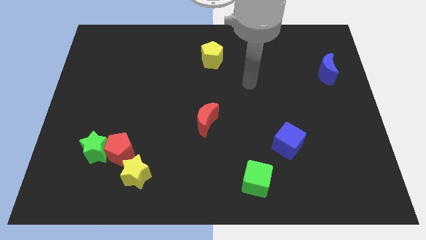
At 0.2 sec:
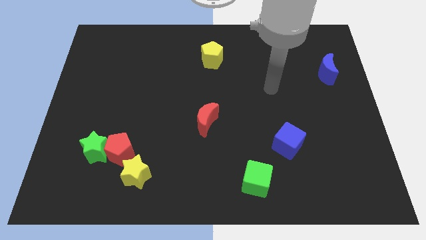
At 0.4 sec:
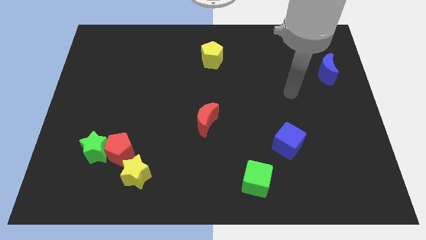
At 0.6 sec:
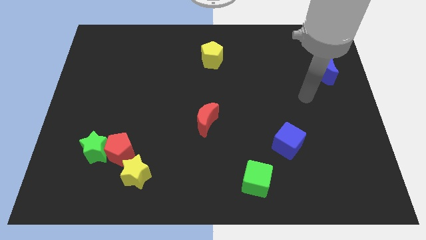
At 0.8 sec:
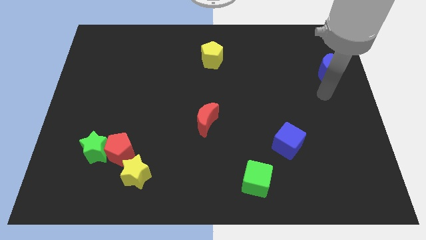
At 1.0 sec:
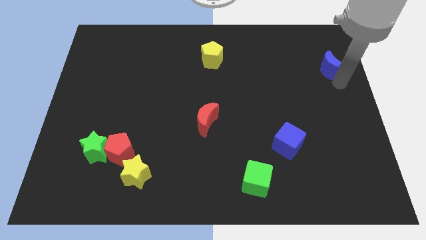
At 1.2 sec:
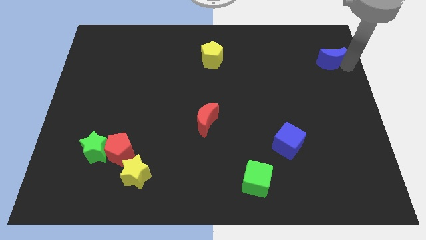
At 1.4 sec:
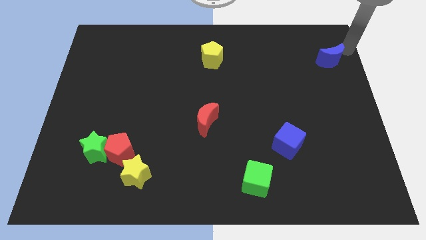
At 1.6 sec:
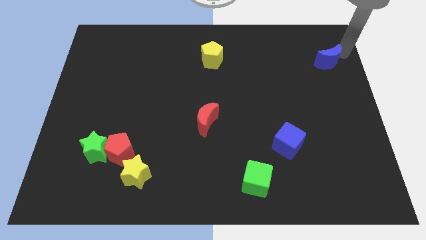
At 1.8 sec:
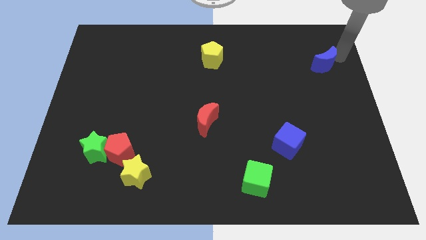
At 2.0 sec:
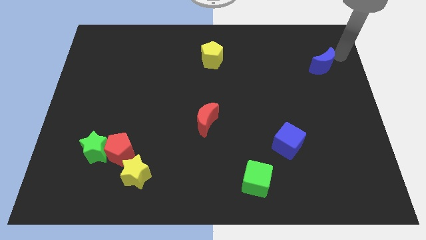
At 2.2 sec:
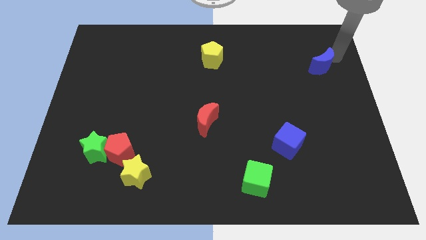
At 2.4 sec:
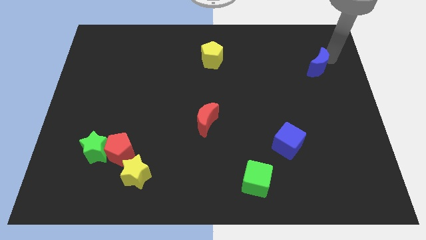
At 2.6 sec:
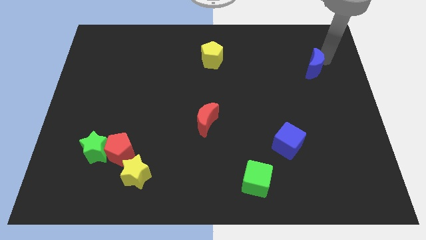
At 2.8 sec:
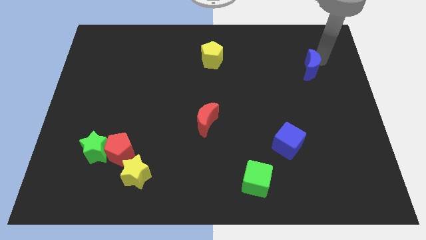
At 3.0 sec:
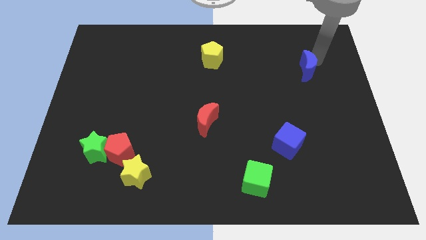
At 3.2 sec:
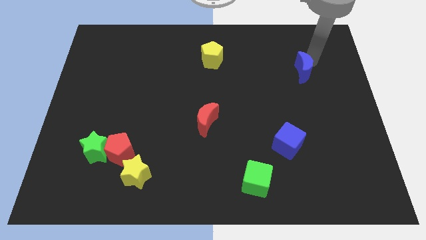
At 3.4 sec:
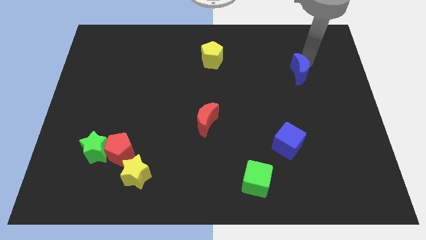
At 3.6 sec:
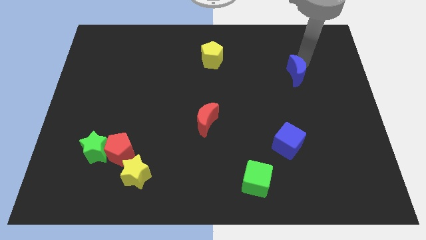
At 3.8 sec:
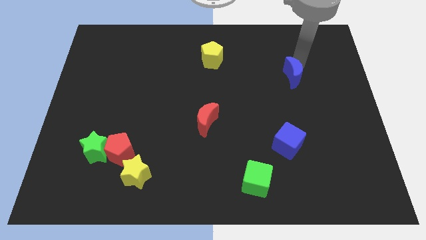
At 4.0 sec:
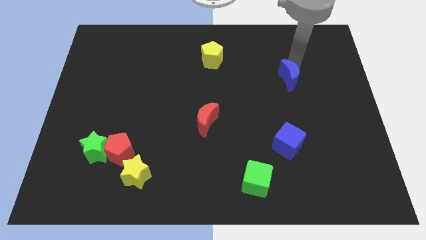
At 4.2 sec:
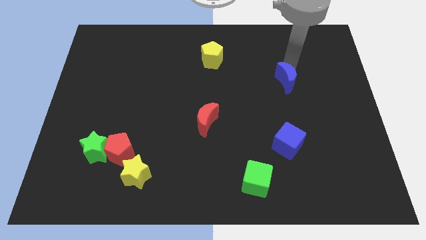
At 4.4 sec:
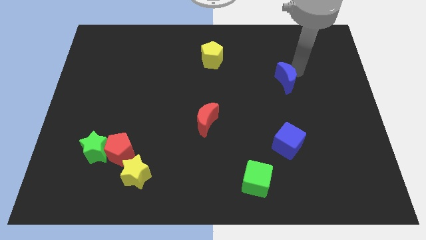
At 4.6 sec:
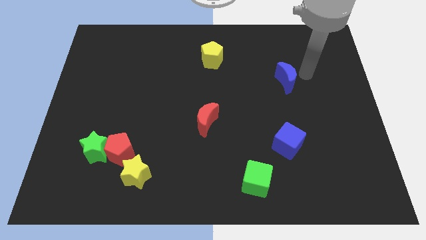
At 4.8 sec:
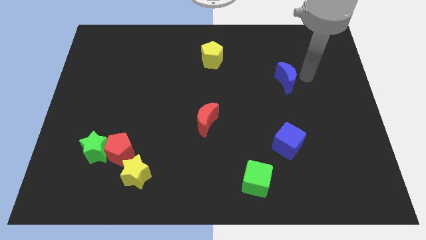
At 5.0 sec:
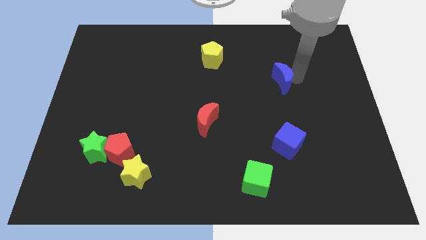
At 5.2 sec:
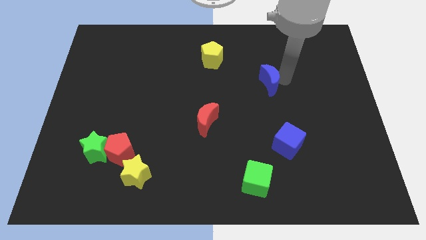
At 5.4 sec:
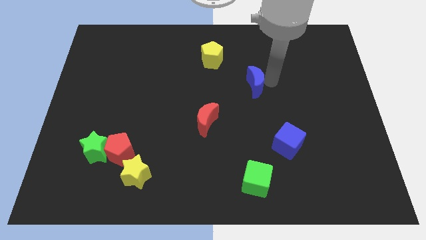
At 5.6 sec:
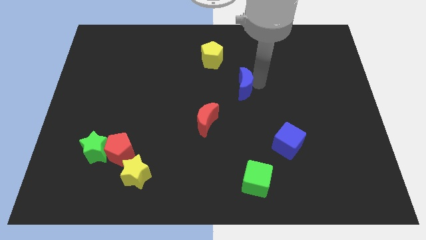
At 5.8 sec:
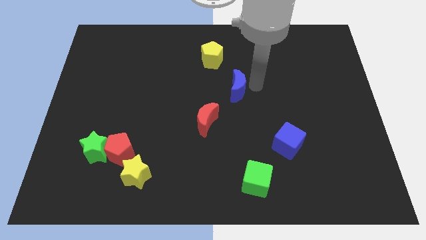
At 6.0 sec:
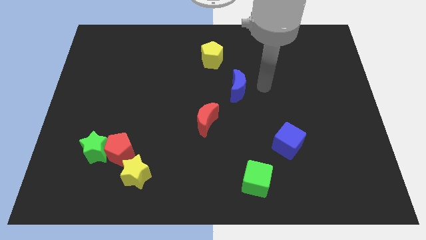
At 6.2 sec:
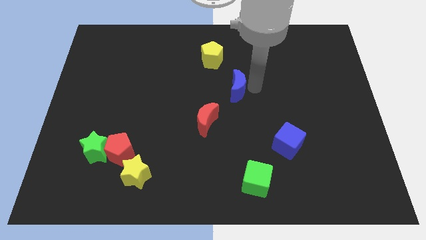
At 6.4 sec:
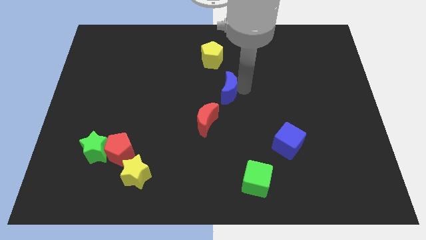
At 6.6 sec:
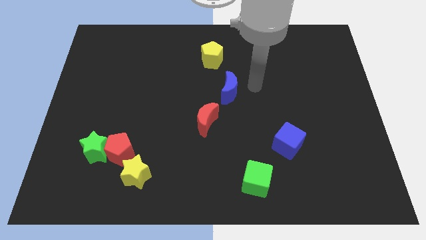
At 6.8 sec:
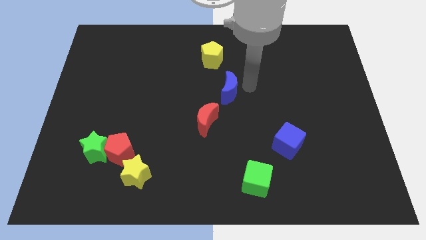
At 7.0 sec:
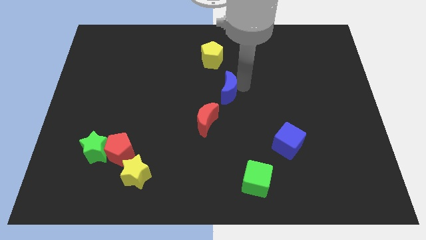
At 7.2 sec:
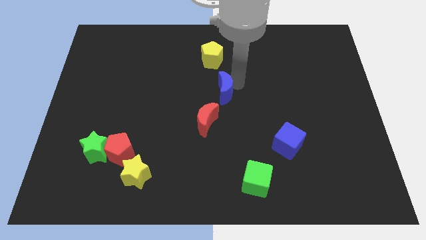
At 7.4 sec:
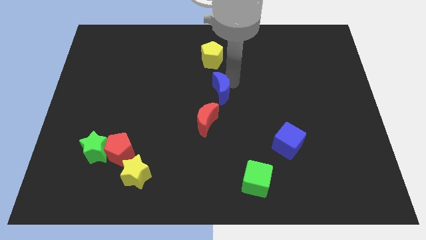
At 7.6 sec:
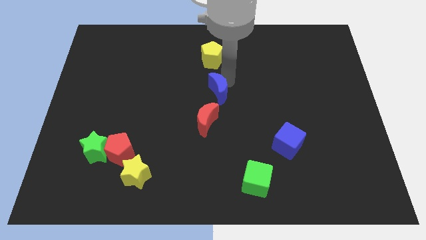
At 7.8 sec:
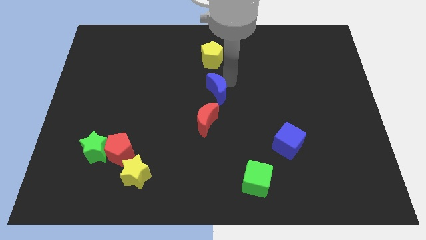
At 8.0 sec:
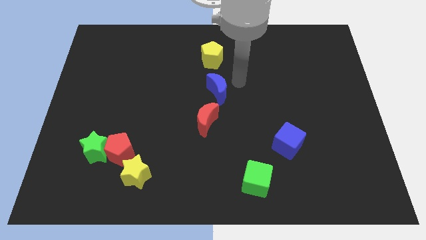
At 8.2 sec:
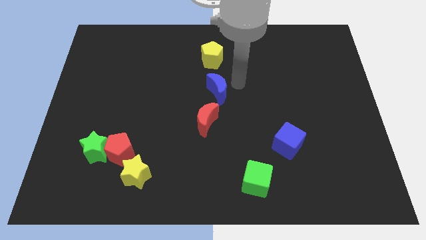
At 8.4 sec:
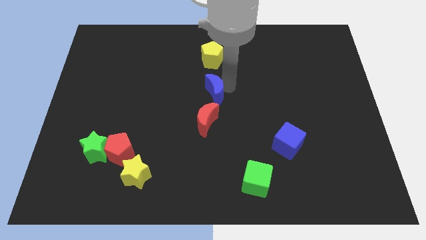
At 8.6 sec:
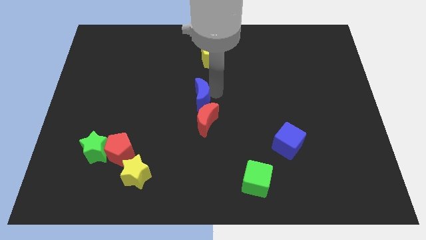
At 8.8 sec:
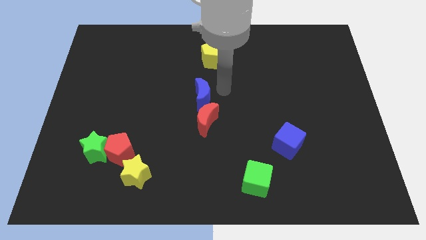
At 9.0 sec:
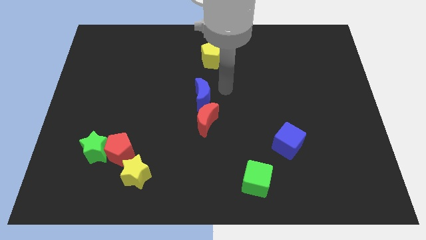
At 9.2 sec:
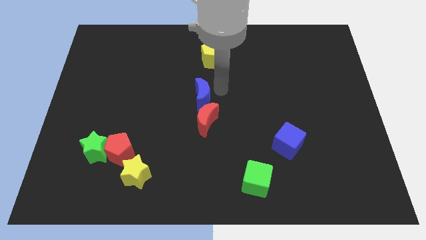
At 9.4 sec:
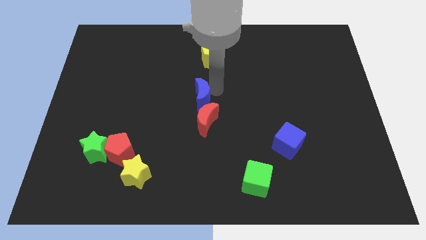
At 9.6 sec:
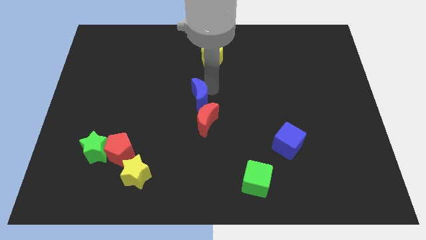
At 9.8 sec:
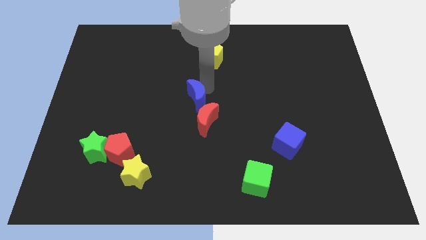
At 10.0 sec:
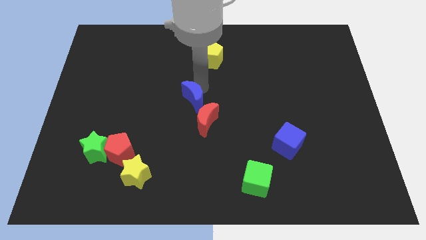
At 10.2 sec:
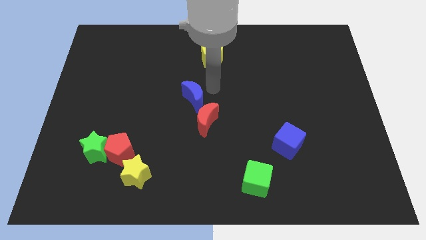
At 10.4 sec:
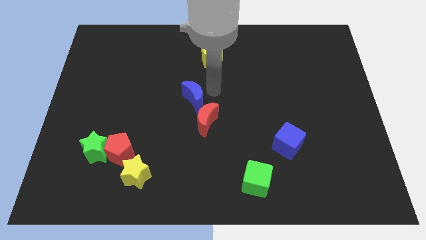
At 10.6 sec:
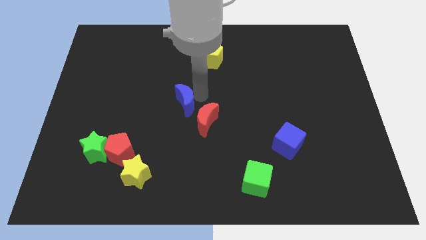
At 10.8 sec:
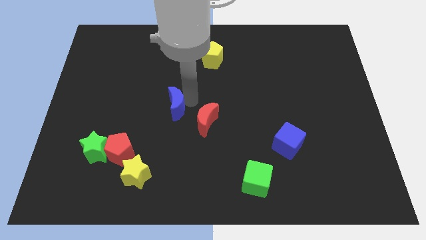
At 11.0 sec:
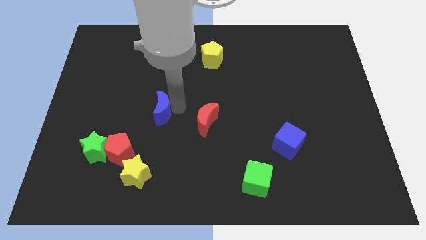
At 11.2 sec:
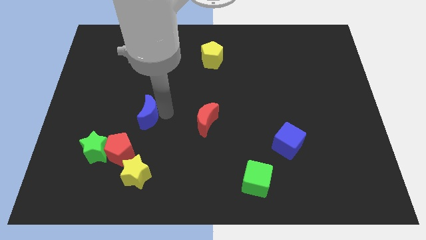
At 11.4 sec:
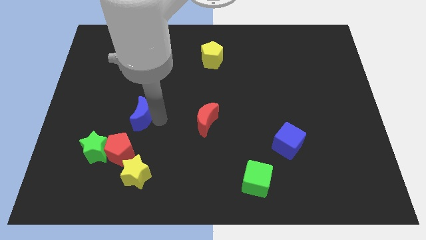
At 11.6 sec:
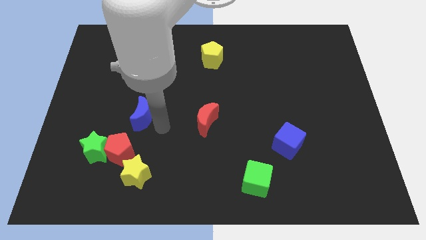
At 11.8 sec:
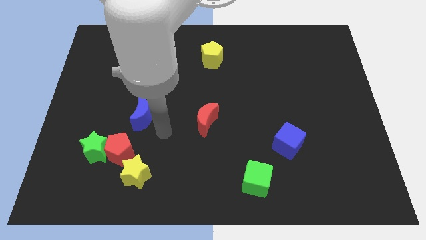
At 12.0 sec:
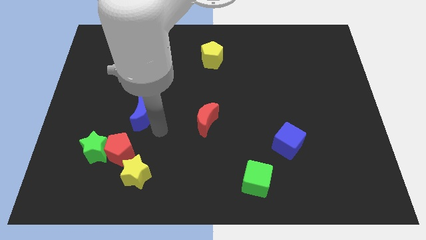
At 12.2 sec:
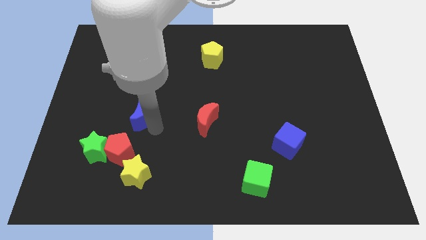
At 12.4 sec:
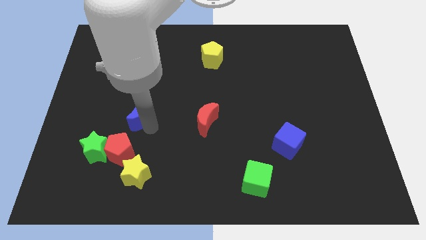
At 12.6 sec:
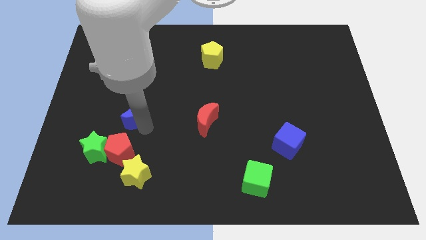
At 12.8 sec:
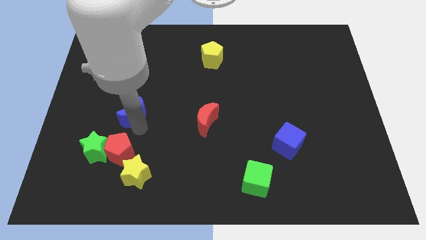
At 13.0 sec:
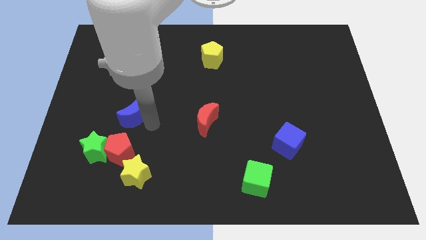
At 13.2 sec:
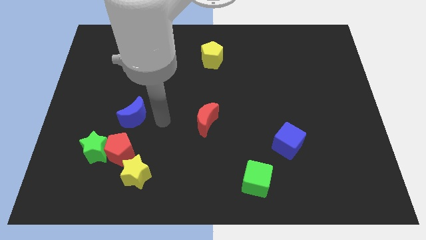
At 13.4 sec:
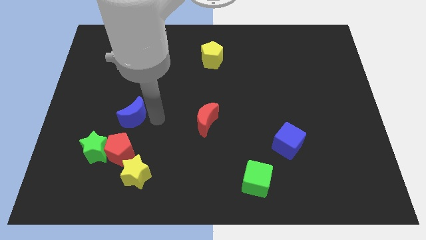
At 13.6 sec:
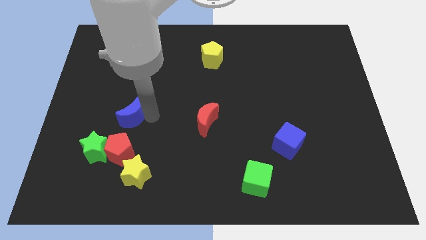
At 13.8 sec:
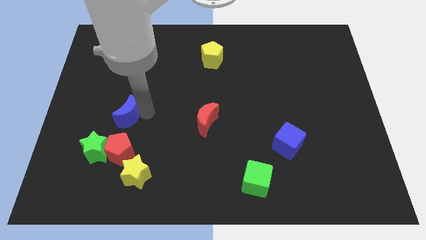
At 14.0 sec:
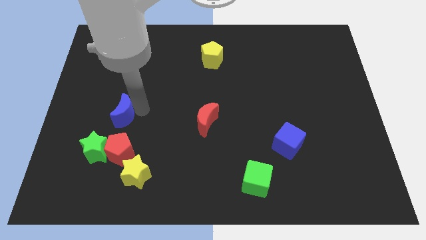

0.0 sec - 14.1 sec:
push the blue moon above the green star

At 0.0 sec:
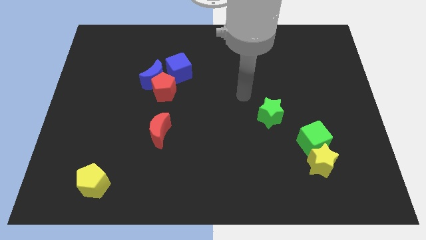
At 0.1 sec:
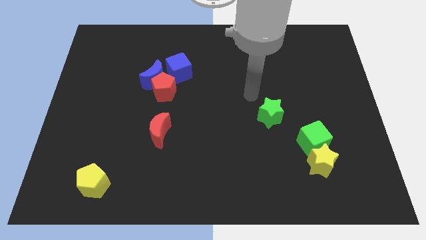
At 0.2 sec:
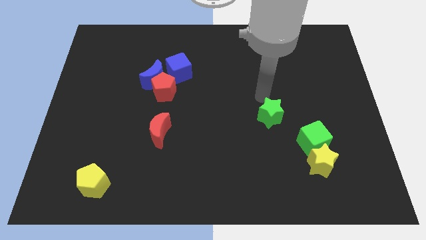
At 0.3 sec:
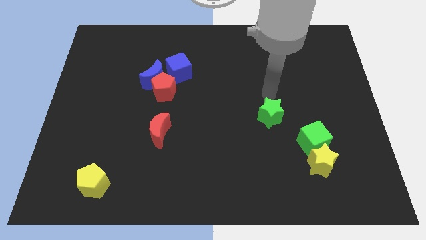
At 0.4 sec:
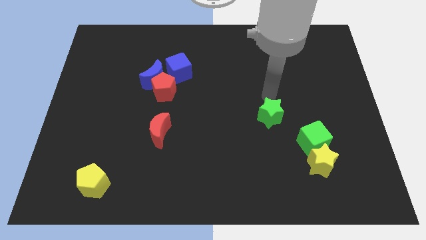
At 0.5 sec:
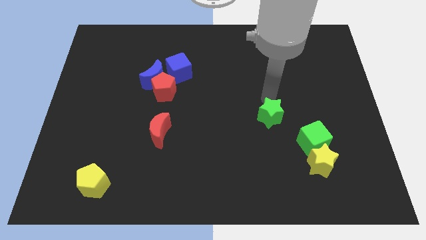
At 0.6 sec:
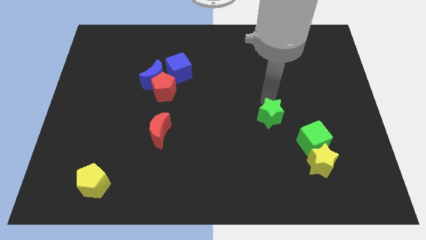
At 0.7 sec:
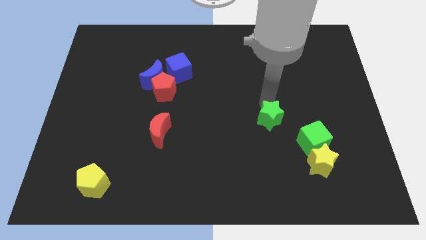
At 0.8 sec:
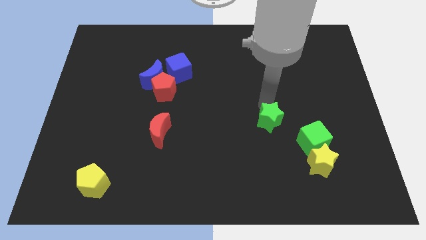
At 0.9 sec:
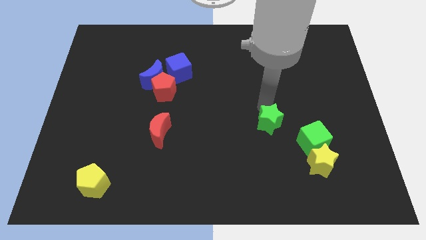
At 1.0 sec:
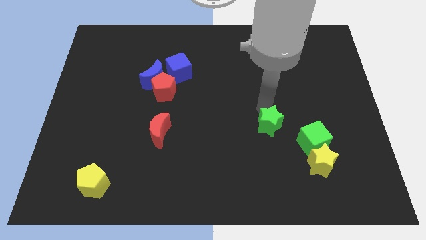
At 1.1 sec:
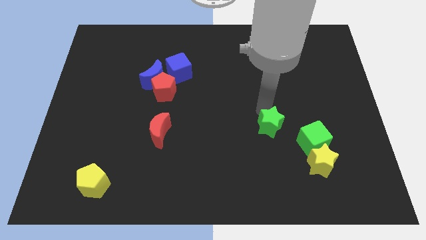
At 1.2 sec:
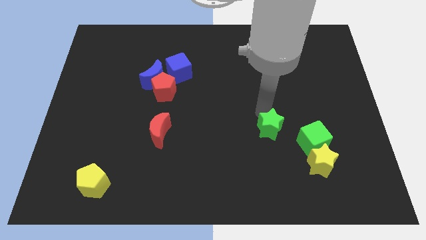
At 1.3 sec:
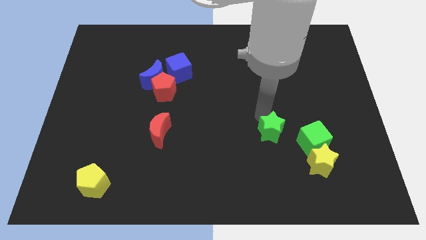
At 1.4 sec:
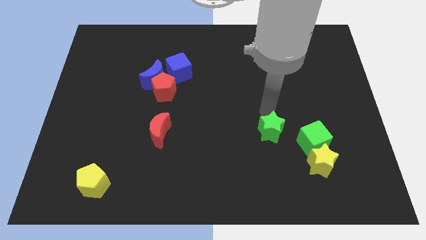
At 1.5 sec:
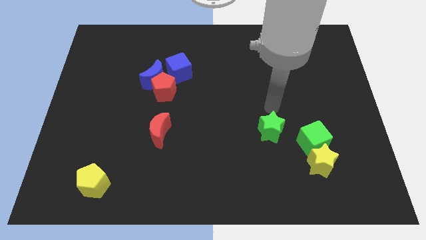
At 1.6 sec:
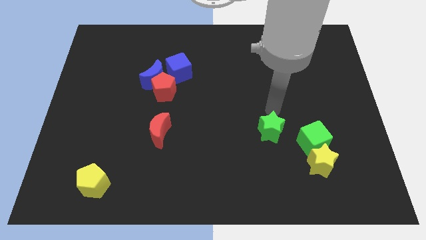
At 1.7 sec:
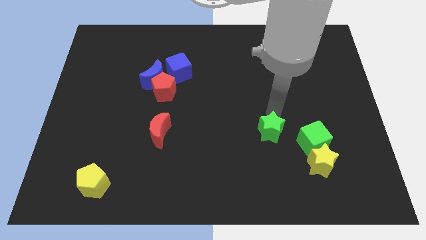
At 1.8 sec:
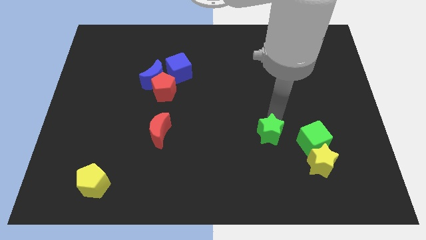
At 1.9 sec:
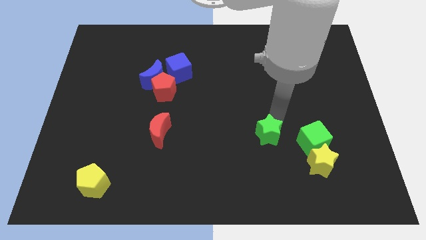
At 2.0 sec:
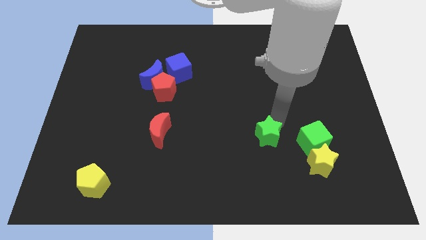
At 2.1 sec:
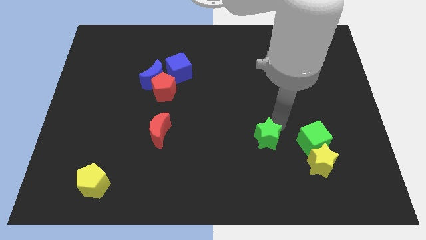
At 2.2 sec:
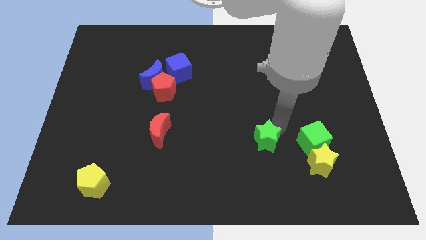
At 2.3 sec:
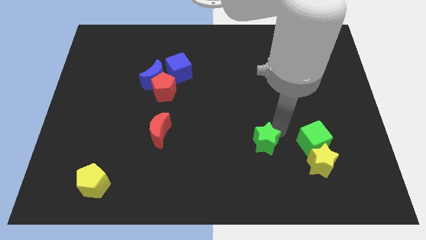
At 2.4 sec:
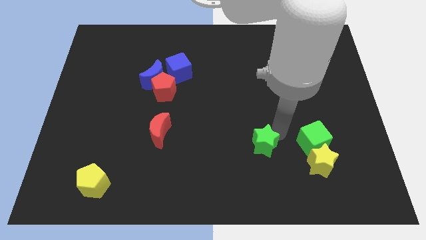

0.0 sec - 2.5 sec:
slide the green star left of the yellow star
